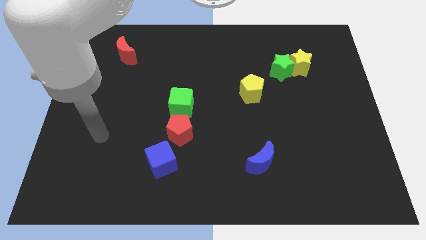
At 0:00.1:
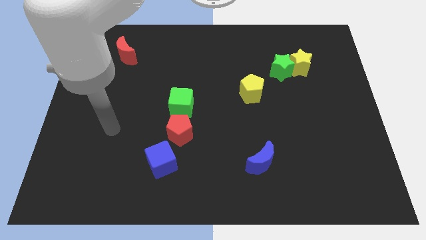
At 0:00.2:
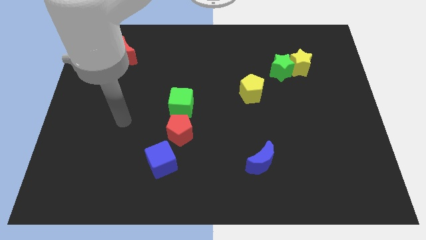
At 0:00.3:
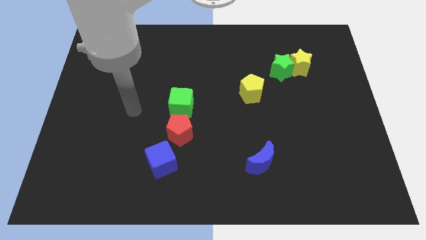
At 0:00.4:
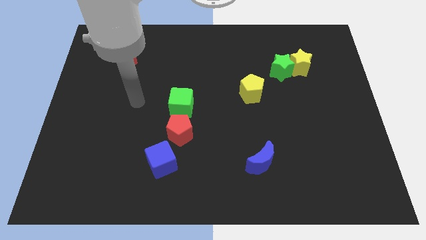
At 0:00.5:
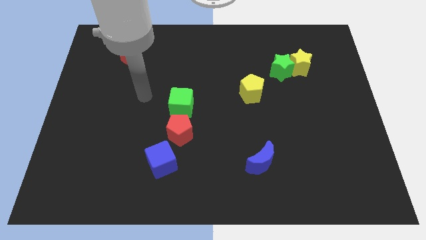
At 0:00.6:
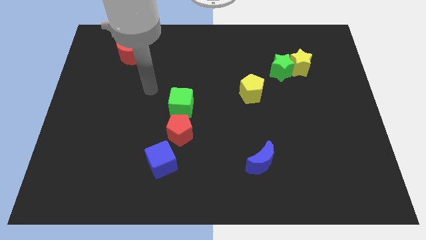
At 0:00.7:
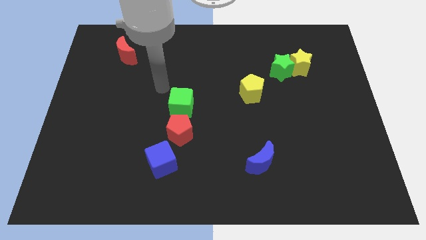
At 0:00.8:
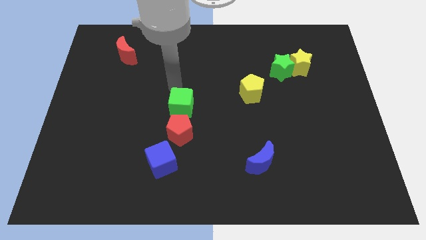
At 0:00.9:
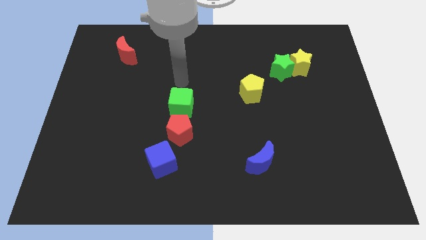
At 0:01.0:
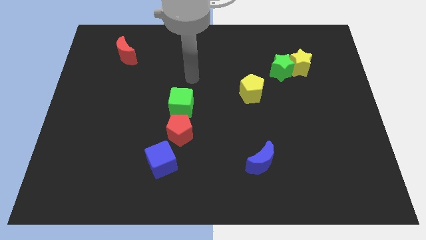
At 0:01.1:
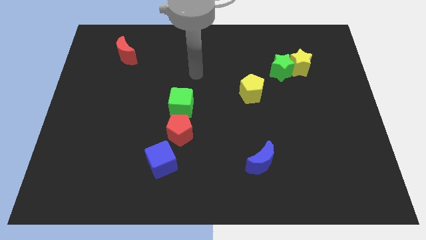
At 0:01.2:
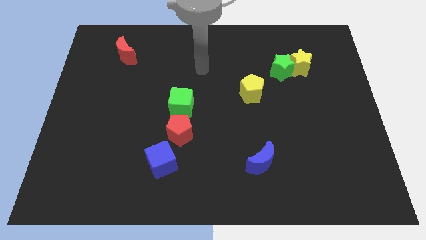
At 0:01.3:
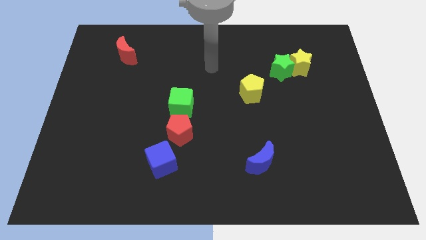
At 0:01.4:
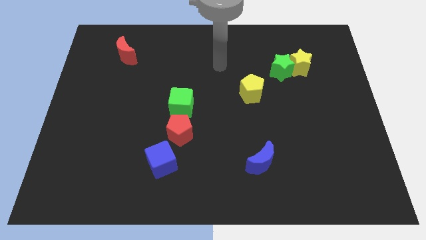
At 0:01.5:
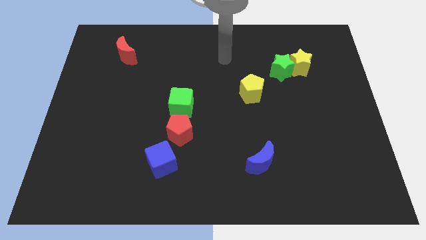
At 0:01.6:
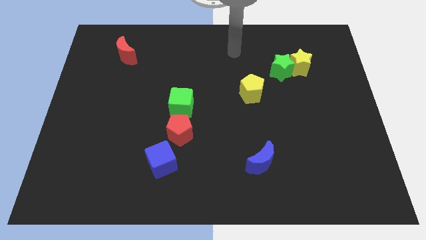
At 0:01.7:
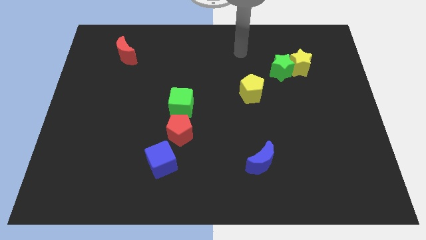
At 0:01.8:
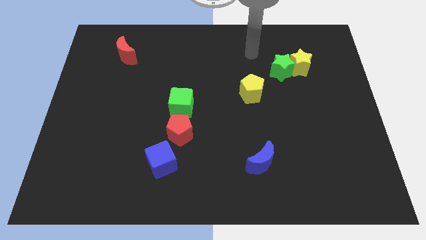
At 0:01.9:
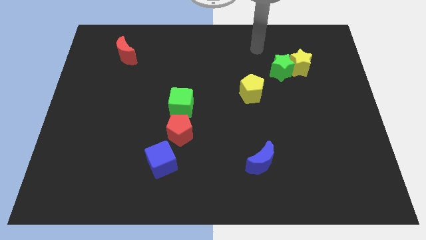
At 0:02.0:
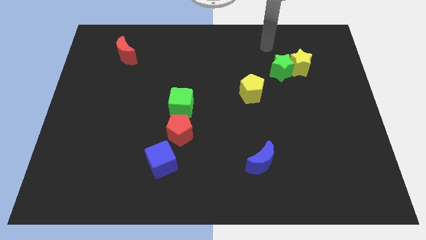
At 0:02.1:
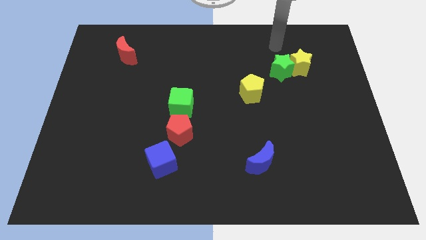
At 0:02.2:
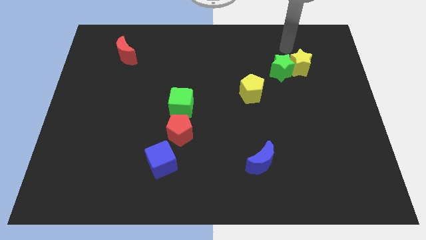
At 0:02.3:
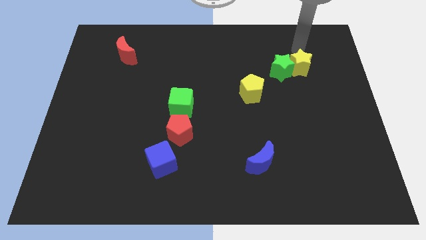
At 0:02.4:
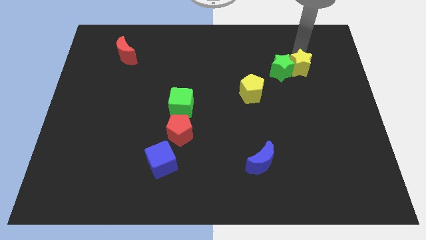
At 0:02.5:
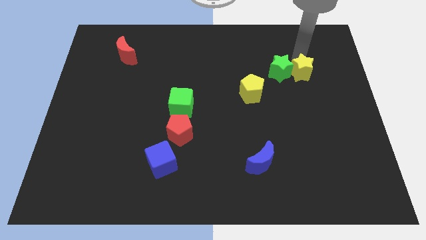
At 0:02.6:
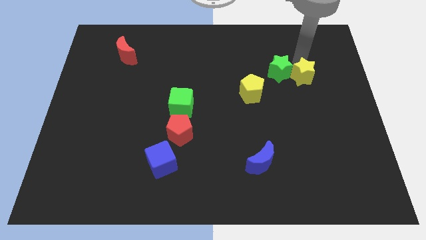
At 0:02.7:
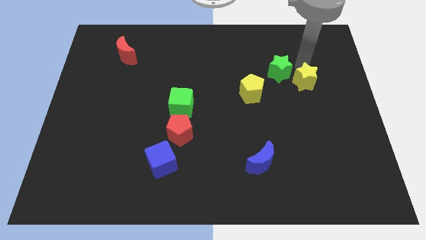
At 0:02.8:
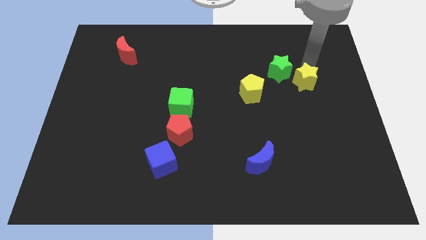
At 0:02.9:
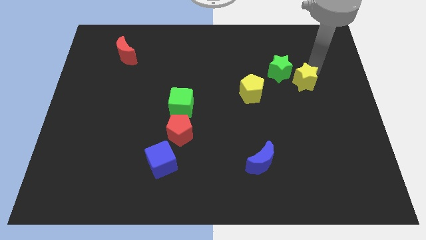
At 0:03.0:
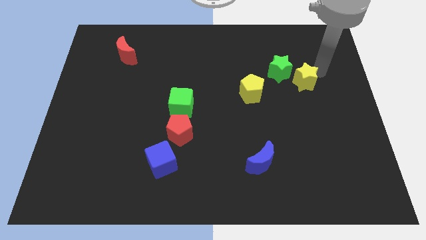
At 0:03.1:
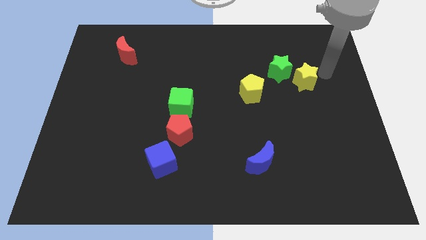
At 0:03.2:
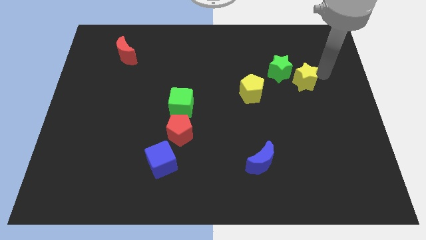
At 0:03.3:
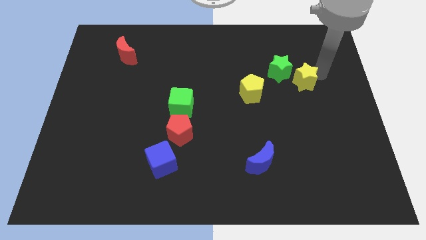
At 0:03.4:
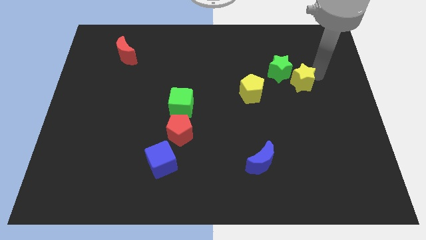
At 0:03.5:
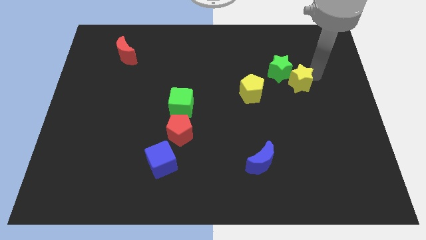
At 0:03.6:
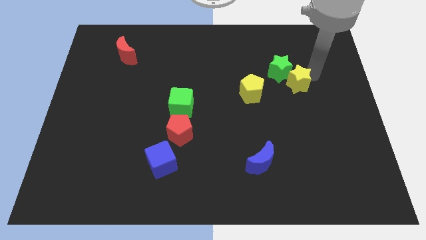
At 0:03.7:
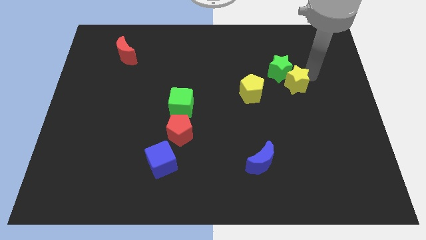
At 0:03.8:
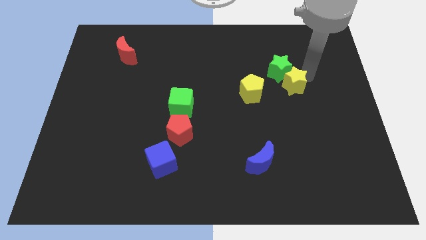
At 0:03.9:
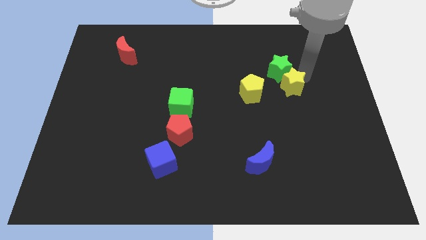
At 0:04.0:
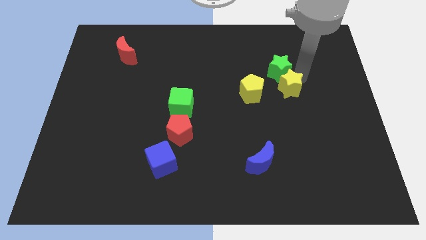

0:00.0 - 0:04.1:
slightly push the yellow star downwards and then to the left

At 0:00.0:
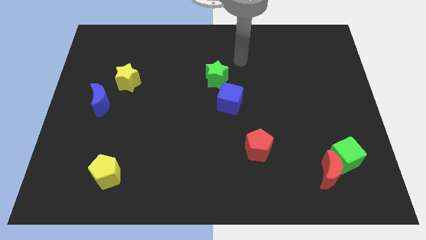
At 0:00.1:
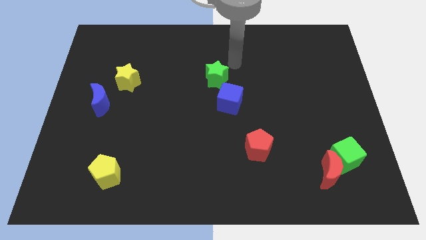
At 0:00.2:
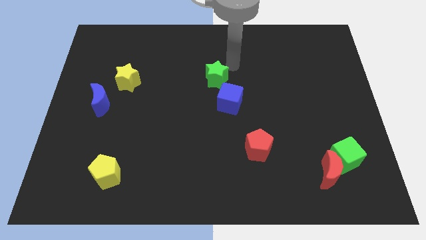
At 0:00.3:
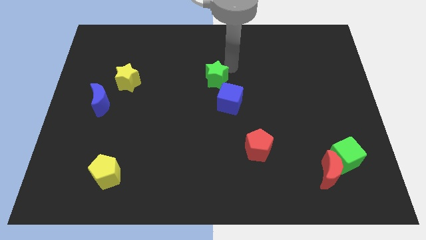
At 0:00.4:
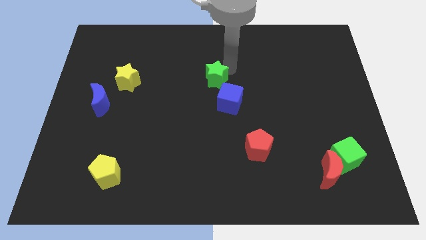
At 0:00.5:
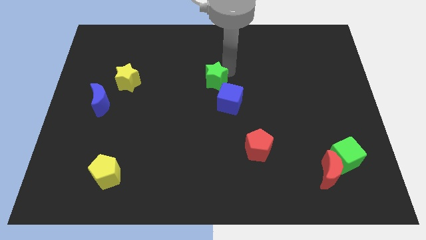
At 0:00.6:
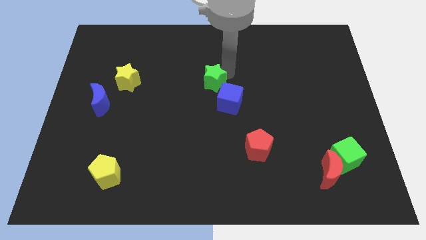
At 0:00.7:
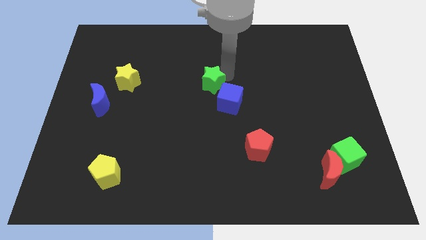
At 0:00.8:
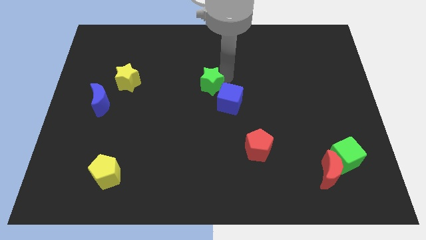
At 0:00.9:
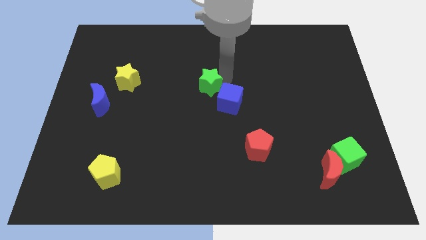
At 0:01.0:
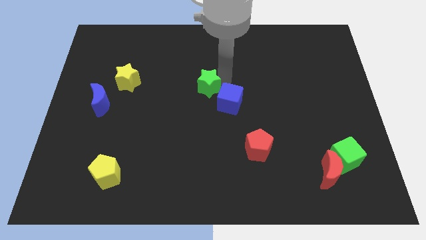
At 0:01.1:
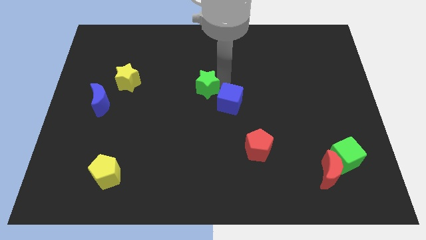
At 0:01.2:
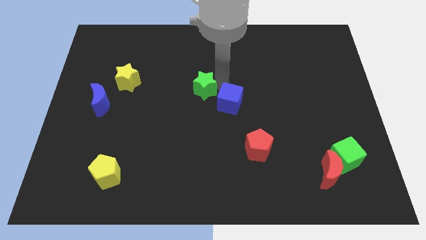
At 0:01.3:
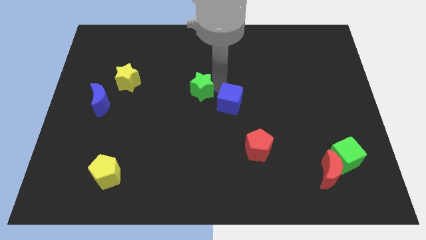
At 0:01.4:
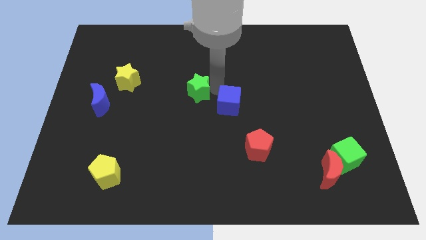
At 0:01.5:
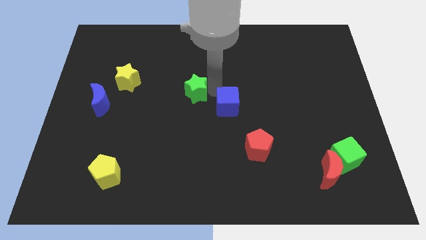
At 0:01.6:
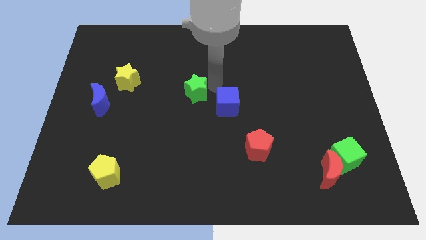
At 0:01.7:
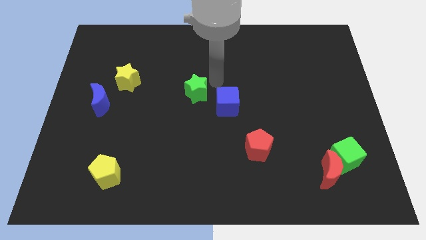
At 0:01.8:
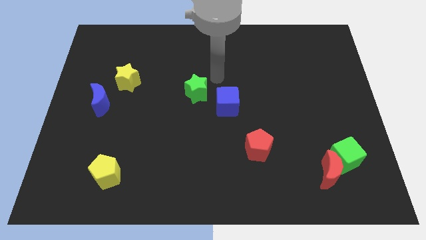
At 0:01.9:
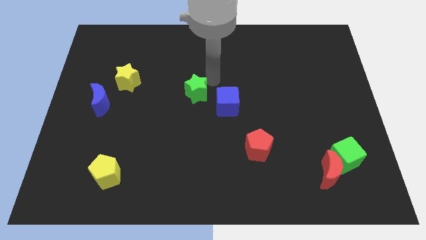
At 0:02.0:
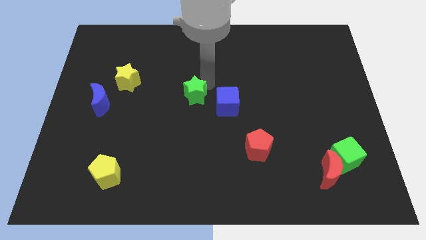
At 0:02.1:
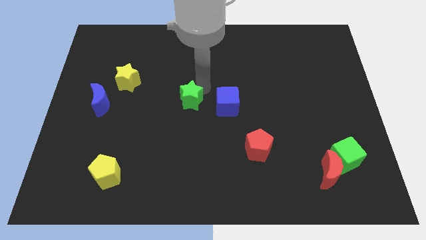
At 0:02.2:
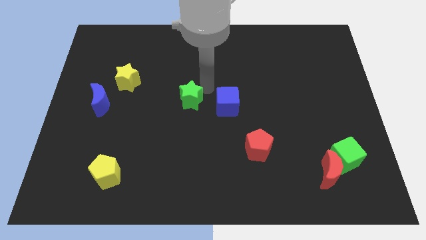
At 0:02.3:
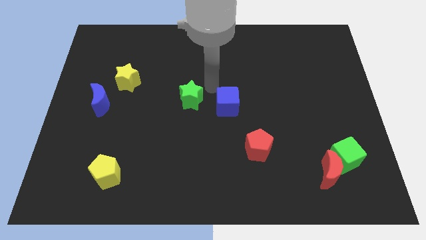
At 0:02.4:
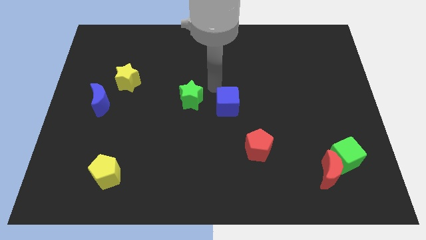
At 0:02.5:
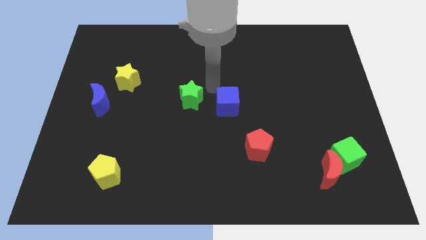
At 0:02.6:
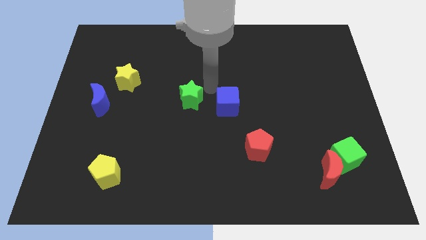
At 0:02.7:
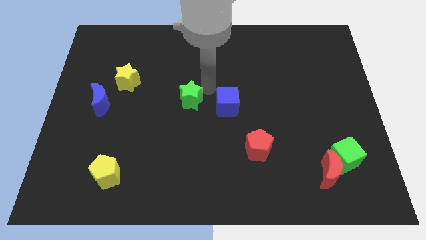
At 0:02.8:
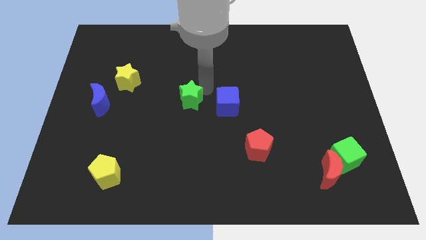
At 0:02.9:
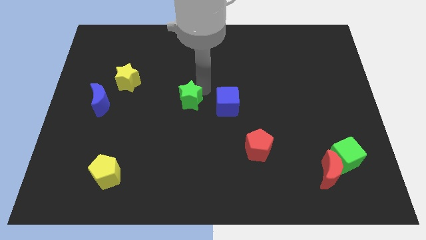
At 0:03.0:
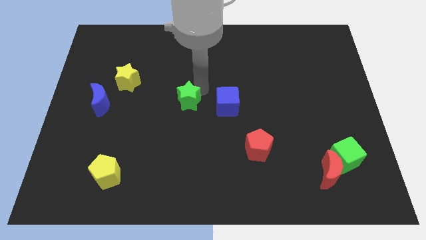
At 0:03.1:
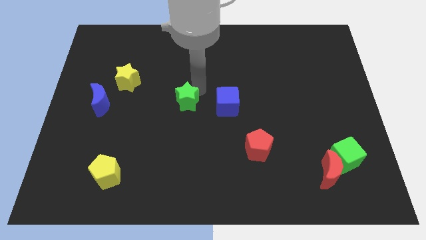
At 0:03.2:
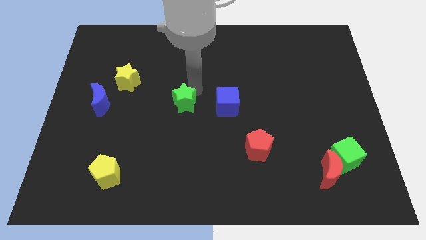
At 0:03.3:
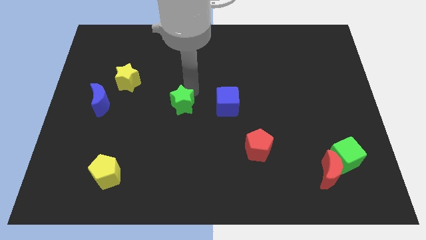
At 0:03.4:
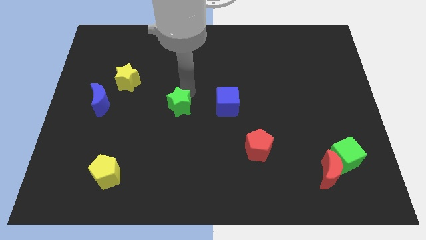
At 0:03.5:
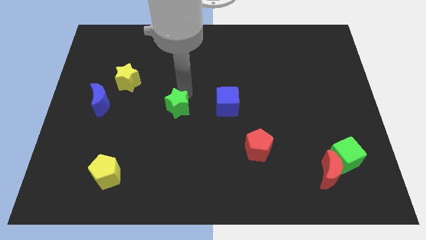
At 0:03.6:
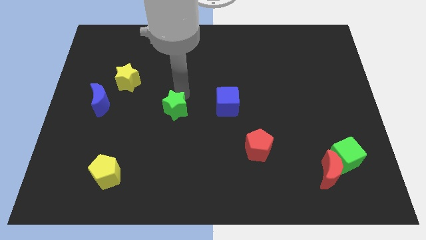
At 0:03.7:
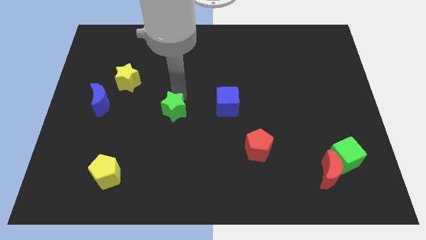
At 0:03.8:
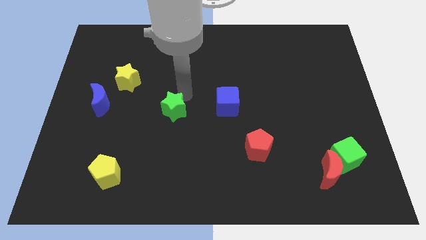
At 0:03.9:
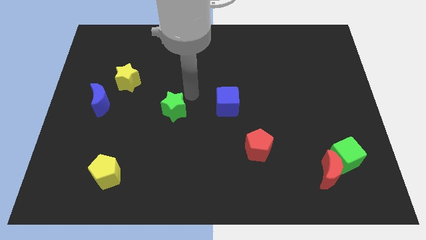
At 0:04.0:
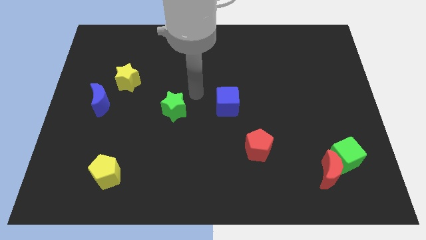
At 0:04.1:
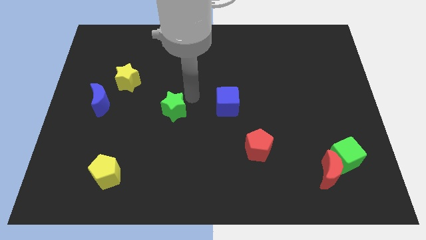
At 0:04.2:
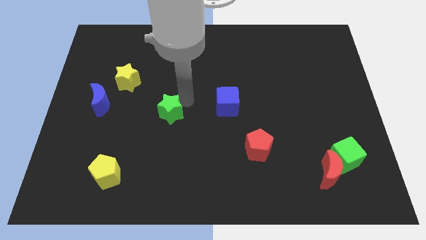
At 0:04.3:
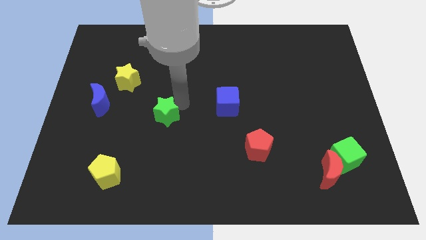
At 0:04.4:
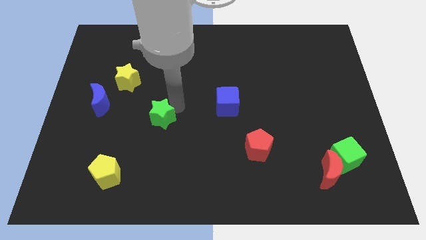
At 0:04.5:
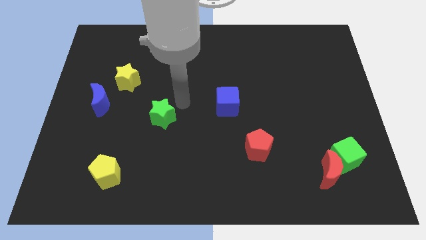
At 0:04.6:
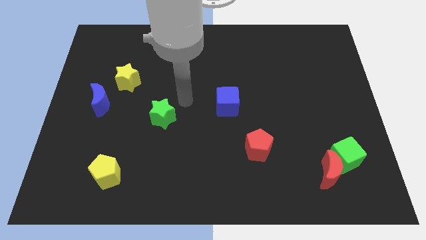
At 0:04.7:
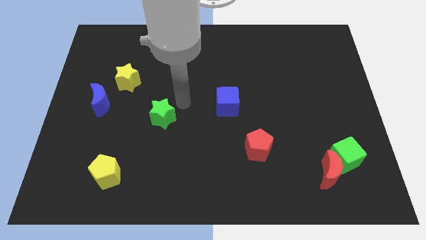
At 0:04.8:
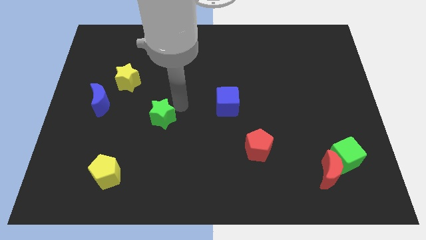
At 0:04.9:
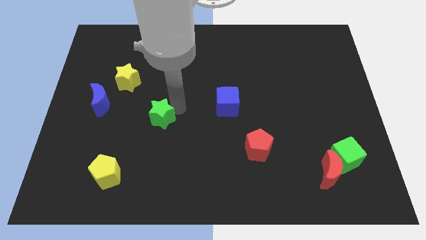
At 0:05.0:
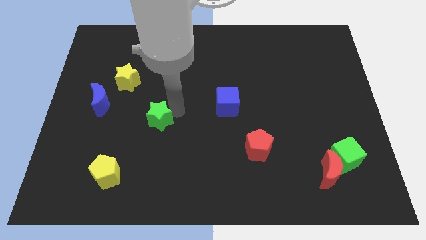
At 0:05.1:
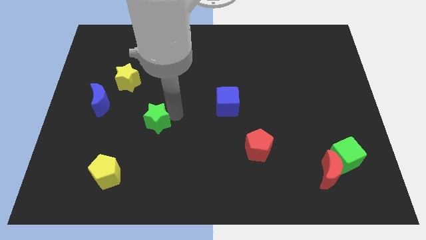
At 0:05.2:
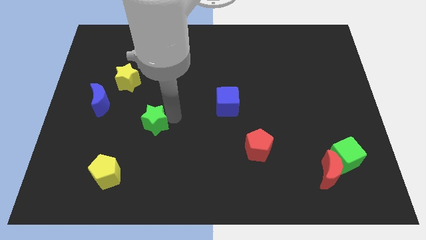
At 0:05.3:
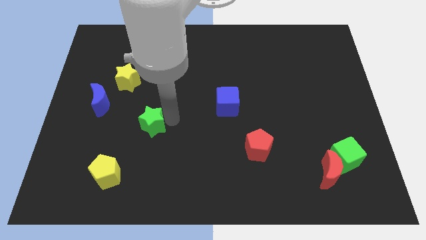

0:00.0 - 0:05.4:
slide the green star diagonally down and to the left
